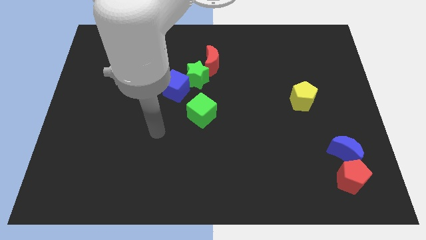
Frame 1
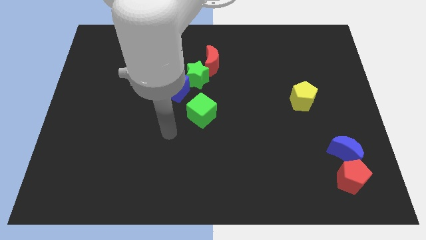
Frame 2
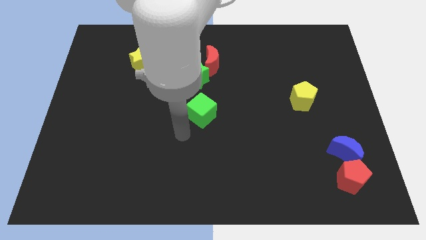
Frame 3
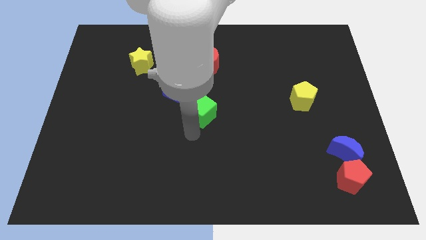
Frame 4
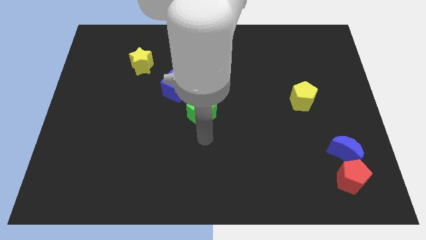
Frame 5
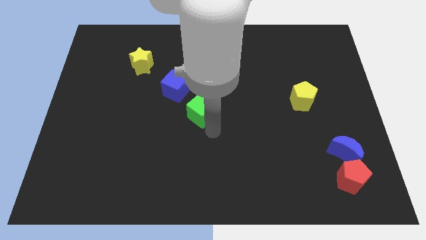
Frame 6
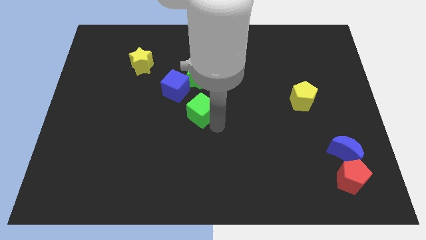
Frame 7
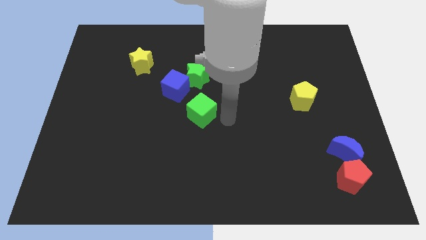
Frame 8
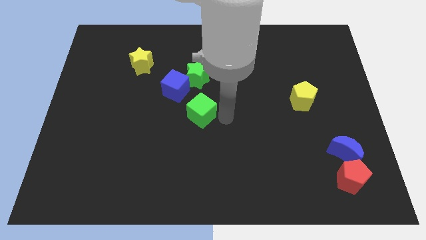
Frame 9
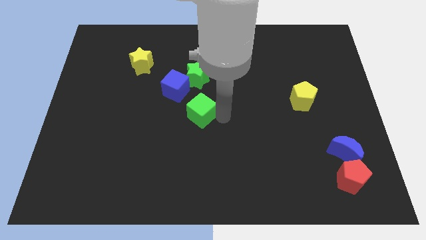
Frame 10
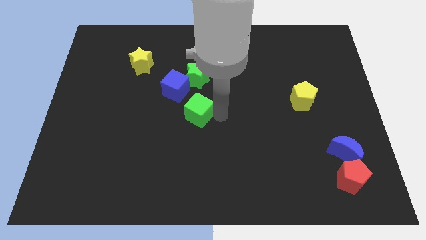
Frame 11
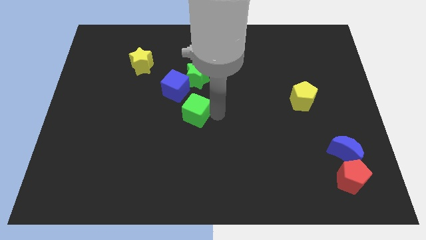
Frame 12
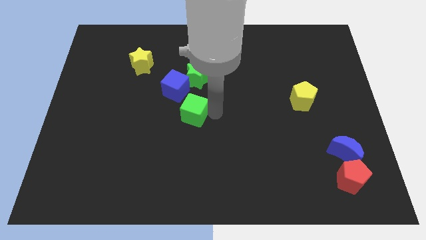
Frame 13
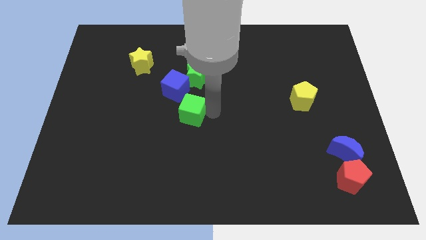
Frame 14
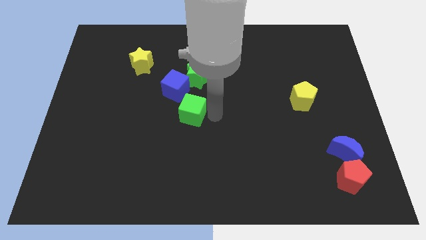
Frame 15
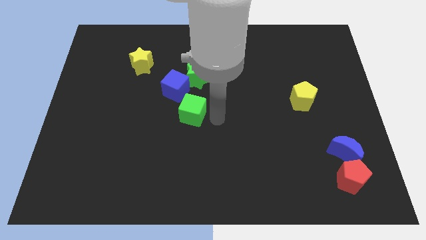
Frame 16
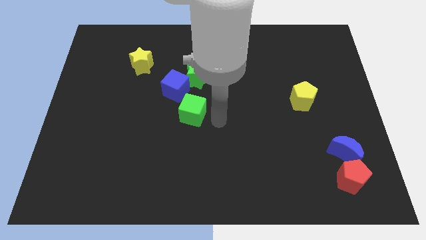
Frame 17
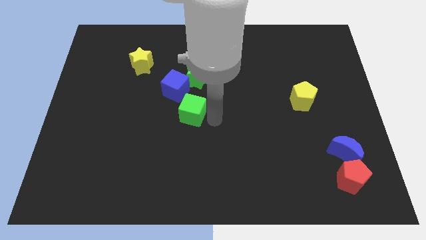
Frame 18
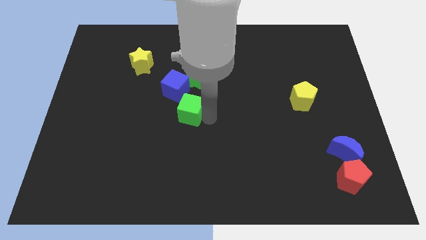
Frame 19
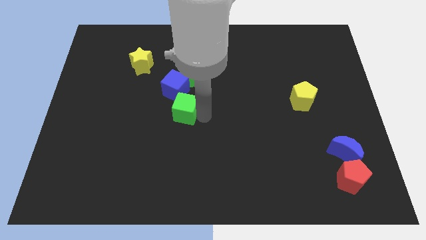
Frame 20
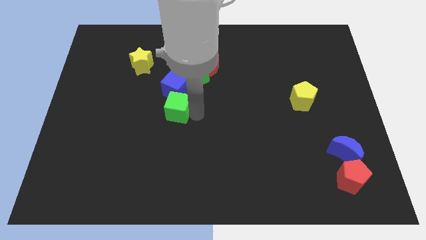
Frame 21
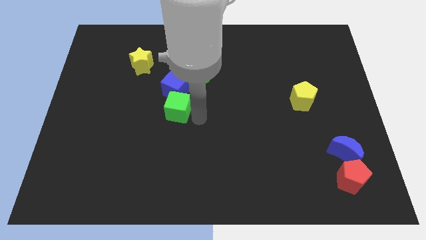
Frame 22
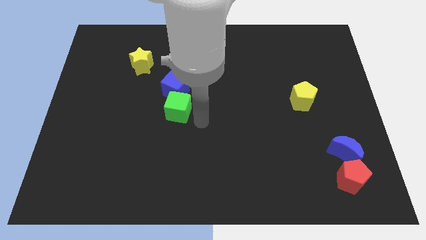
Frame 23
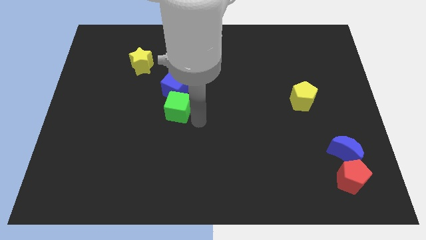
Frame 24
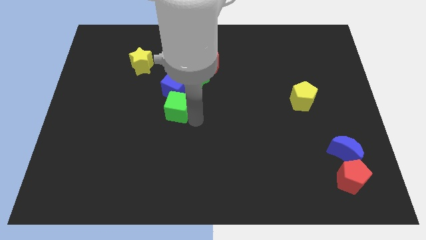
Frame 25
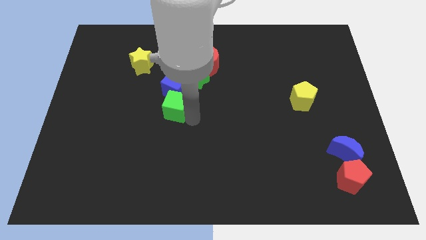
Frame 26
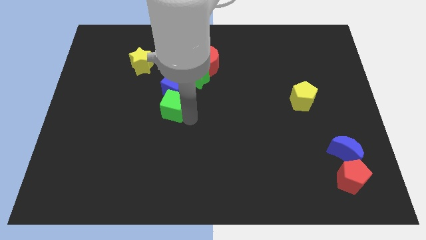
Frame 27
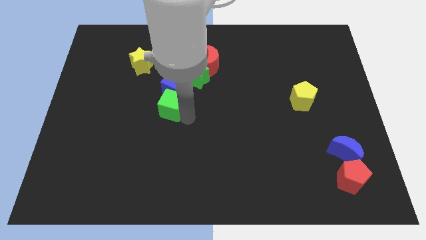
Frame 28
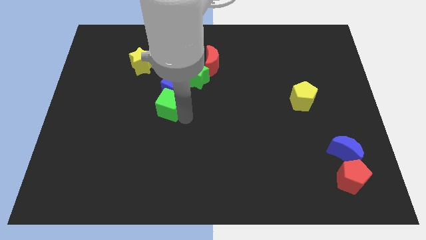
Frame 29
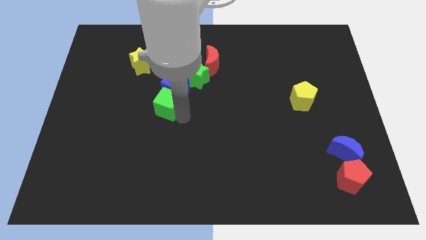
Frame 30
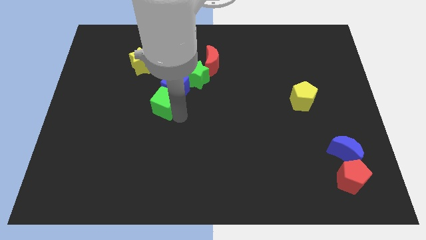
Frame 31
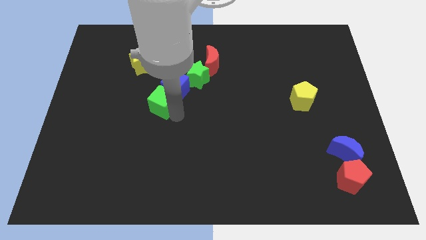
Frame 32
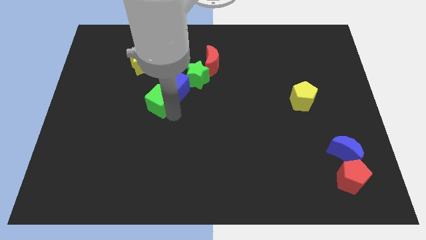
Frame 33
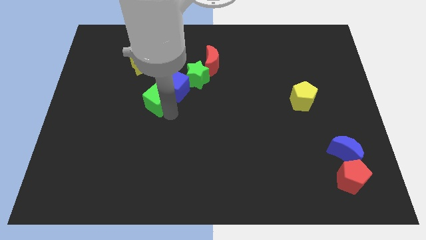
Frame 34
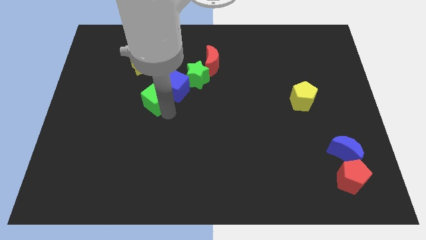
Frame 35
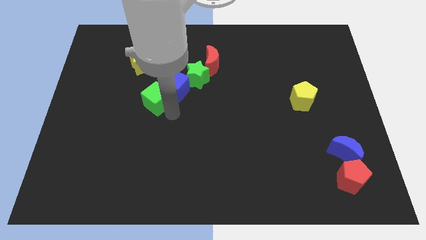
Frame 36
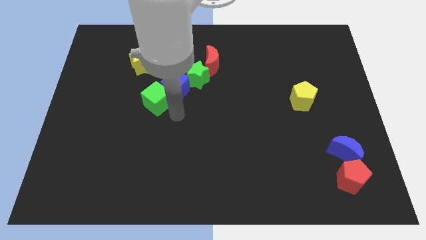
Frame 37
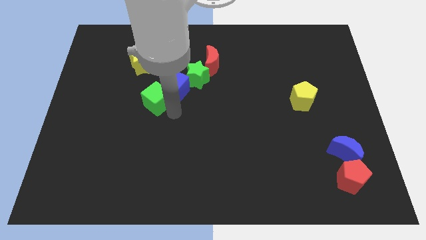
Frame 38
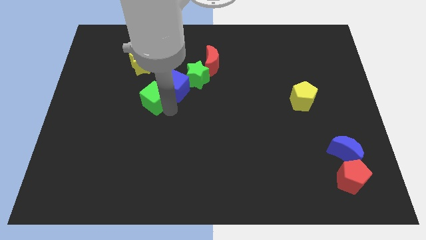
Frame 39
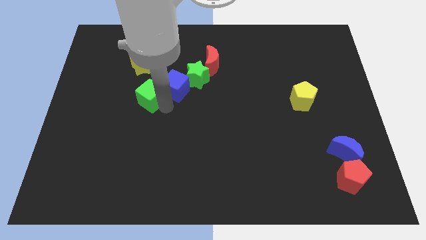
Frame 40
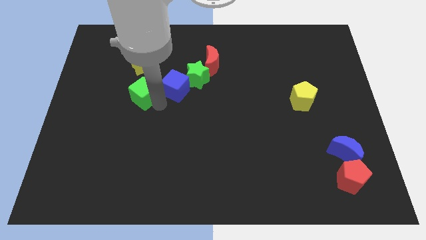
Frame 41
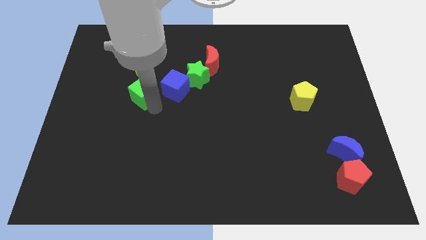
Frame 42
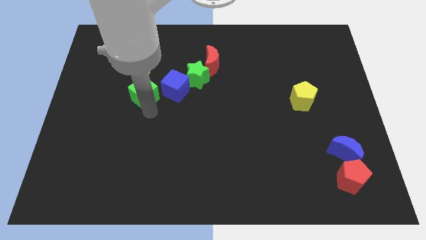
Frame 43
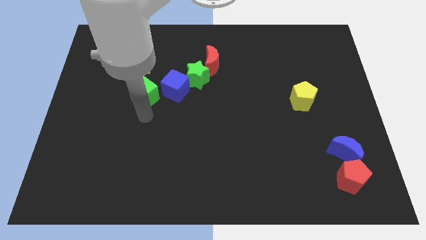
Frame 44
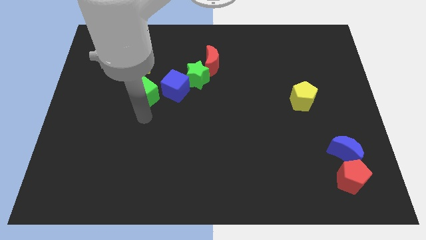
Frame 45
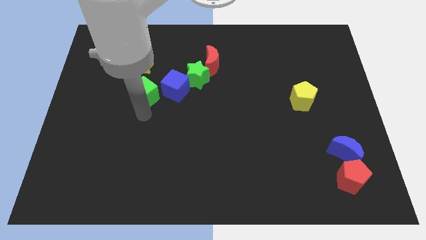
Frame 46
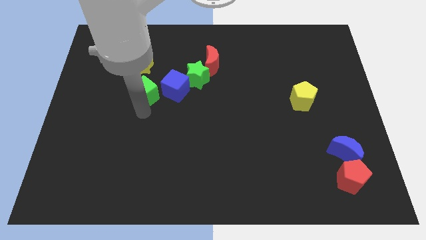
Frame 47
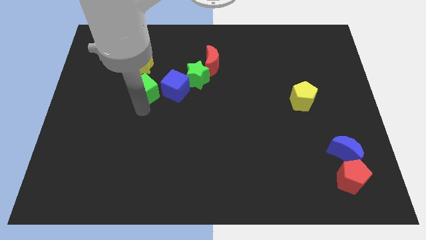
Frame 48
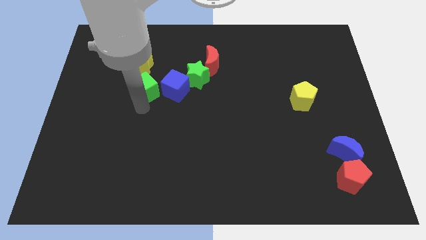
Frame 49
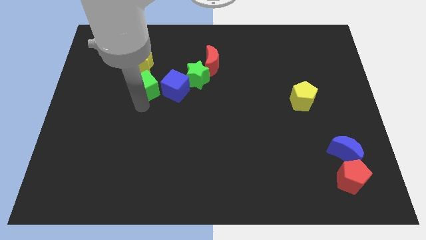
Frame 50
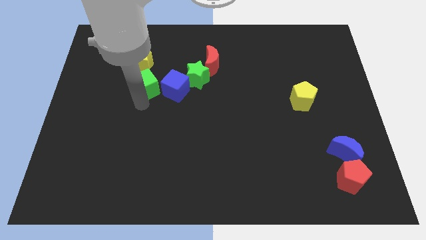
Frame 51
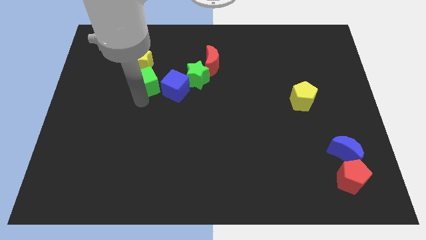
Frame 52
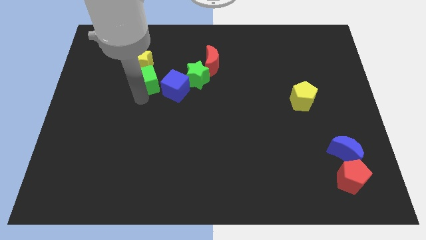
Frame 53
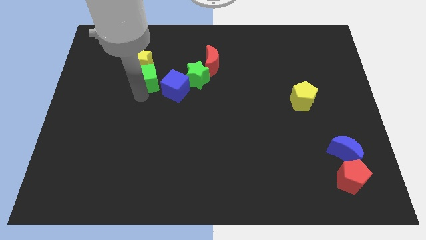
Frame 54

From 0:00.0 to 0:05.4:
move the green cube towards the yellow star

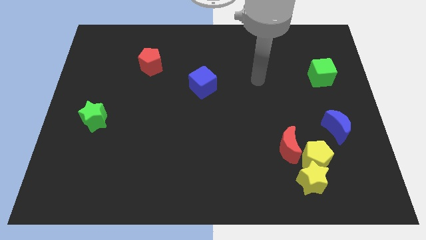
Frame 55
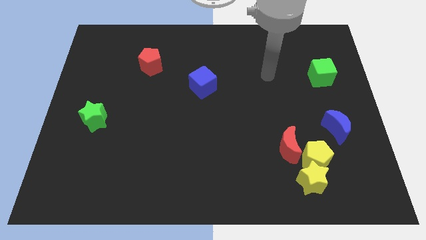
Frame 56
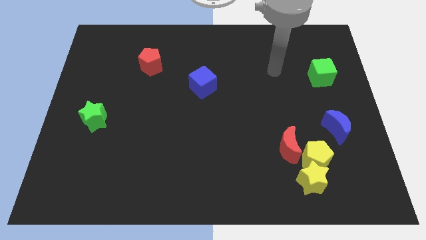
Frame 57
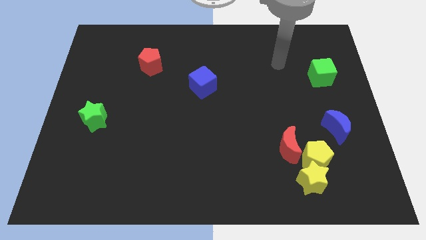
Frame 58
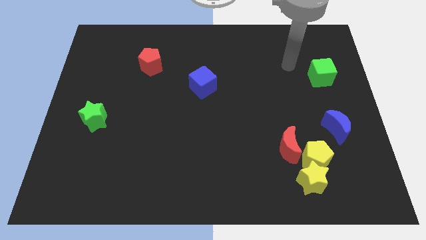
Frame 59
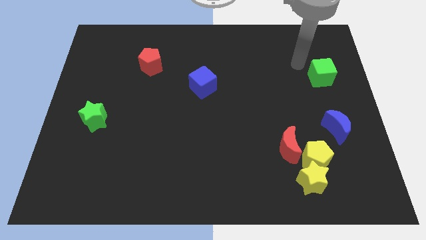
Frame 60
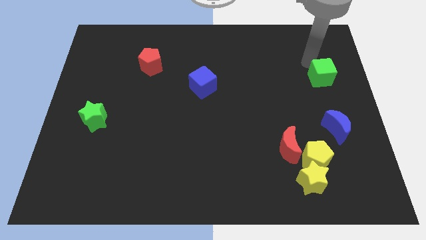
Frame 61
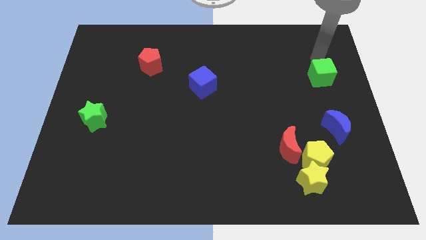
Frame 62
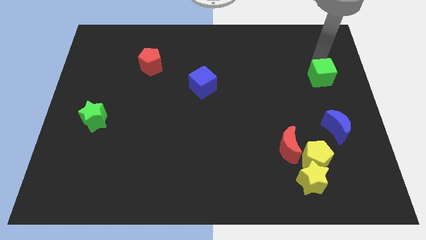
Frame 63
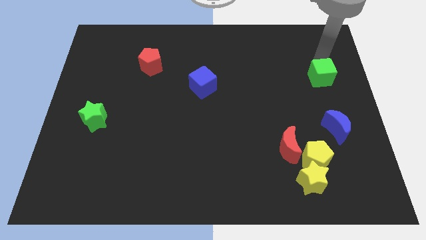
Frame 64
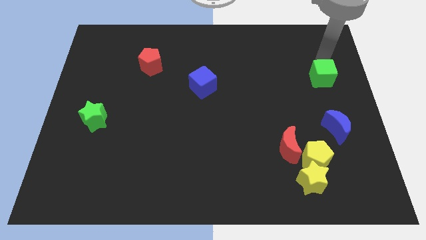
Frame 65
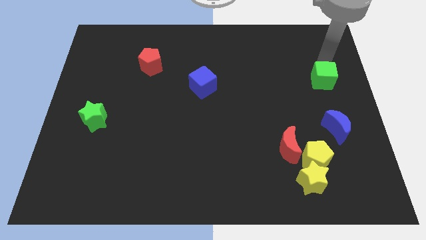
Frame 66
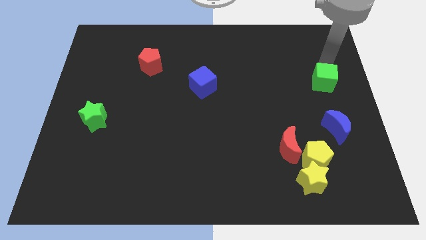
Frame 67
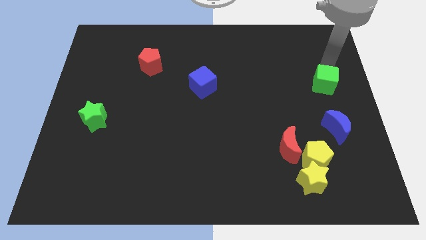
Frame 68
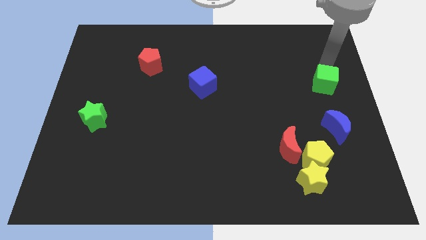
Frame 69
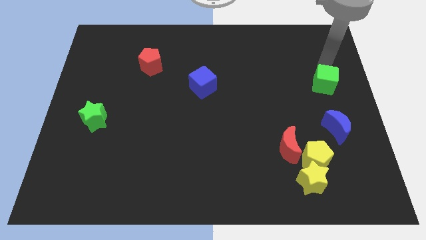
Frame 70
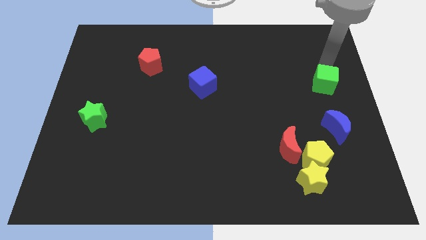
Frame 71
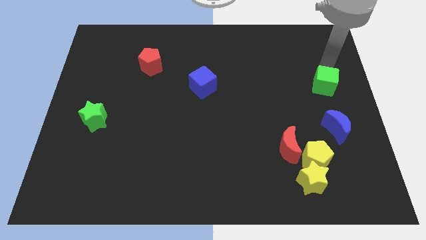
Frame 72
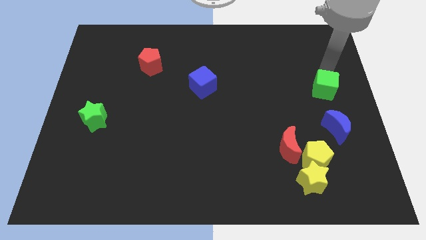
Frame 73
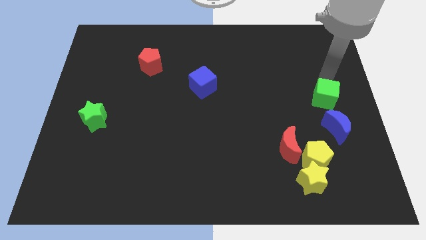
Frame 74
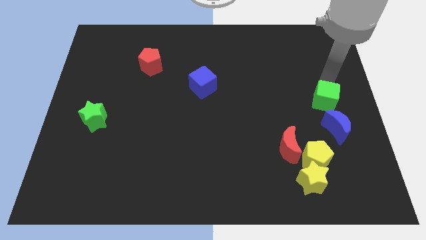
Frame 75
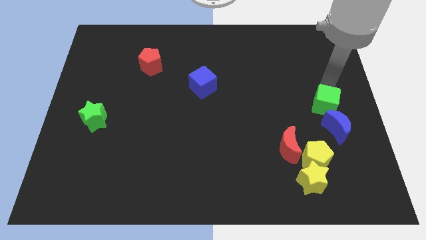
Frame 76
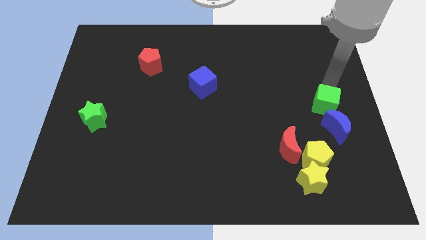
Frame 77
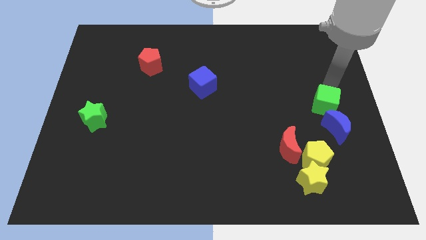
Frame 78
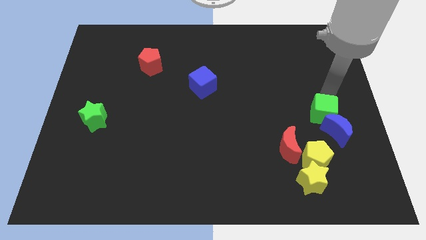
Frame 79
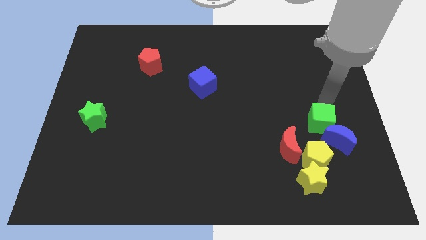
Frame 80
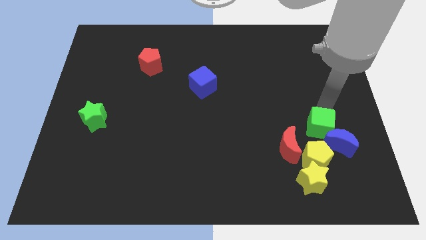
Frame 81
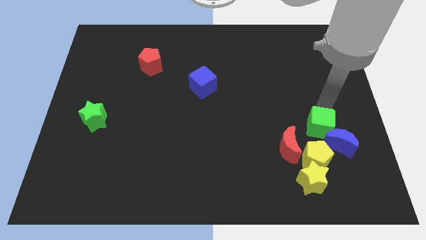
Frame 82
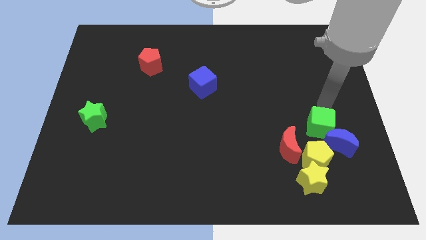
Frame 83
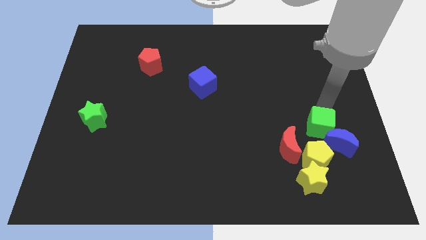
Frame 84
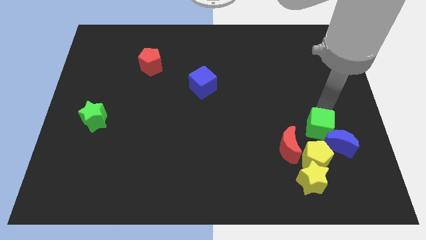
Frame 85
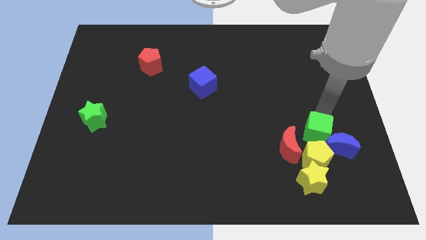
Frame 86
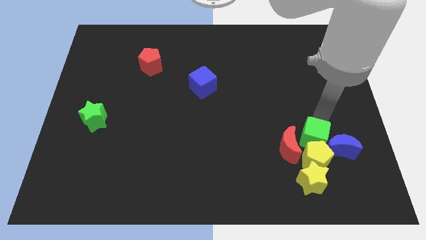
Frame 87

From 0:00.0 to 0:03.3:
push the green cube close to the yellow pentagon
